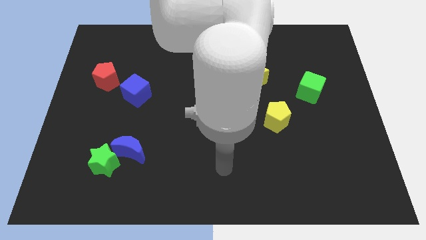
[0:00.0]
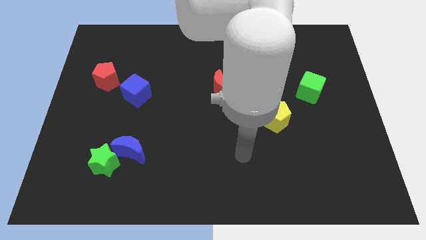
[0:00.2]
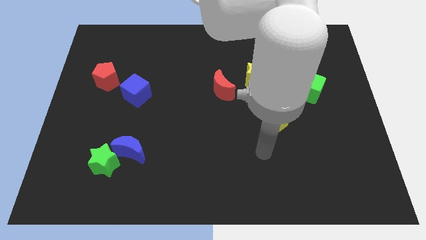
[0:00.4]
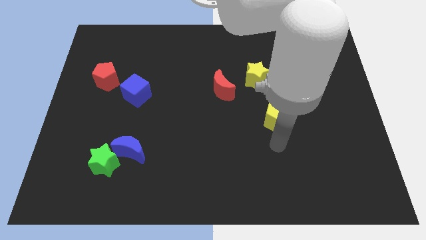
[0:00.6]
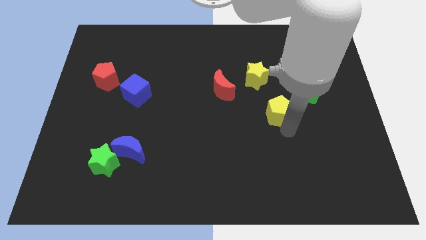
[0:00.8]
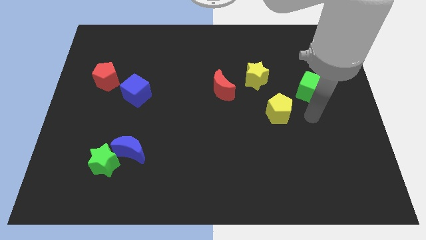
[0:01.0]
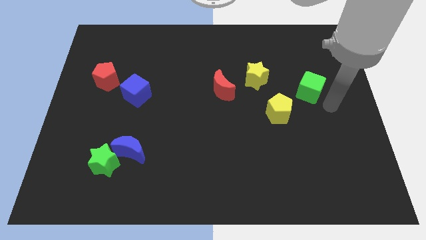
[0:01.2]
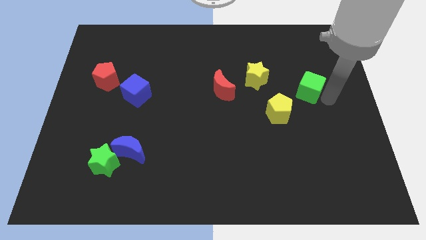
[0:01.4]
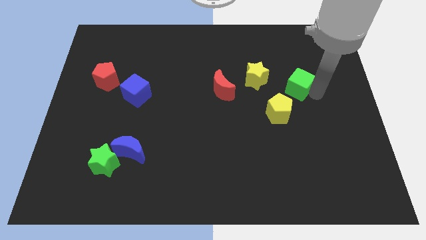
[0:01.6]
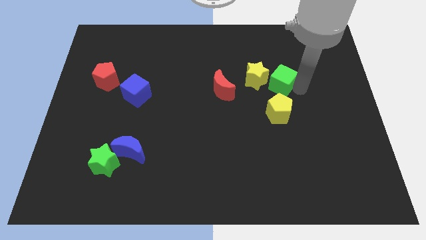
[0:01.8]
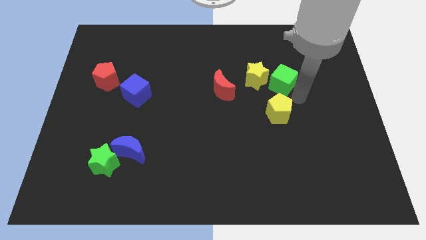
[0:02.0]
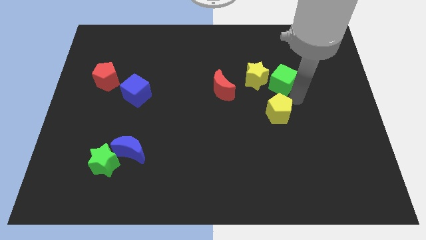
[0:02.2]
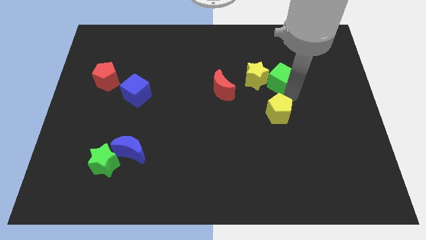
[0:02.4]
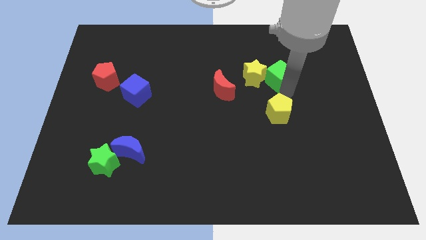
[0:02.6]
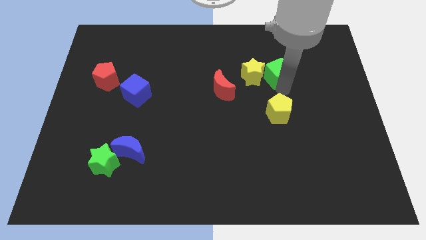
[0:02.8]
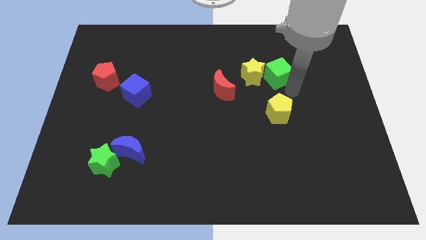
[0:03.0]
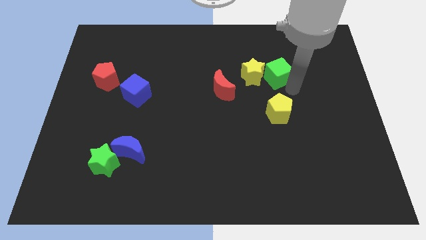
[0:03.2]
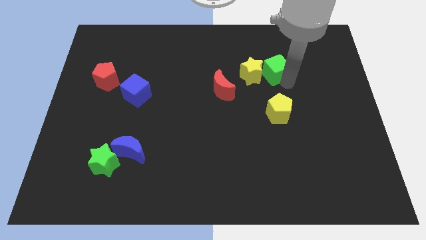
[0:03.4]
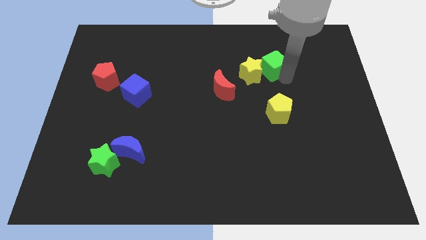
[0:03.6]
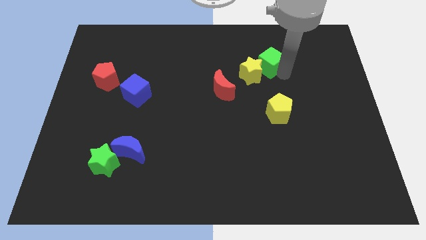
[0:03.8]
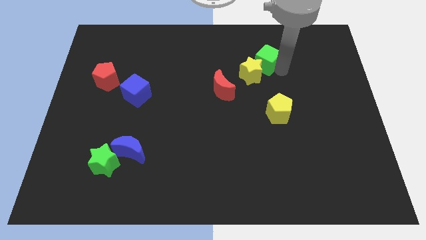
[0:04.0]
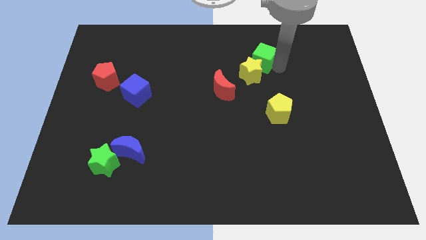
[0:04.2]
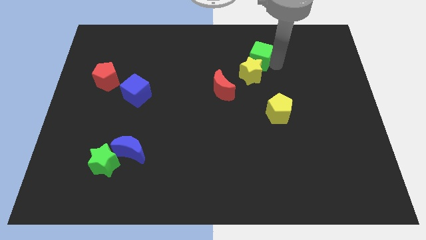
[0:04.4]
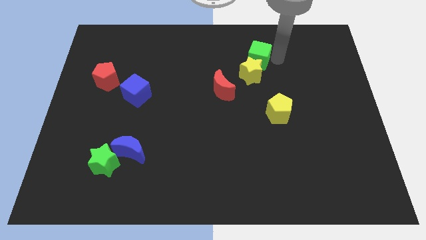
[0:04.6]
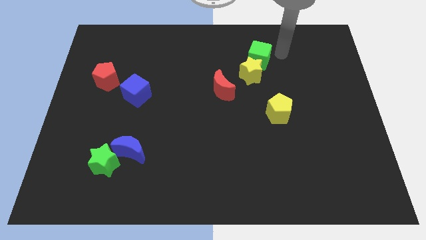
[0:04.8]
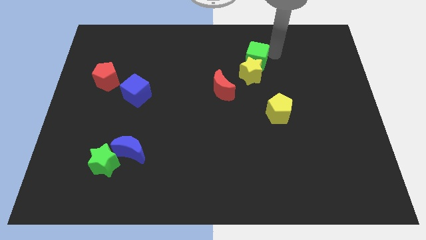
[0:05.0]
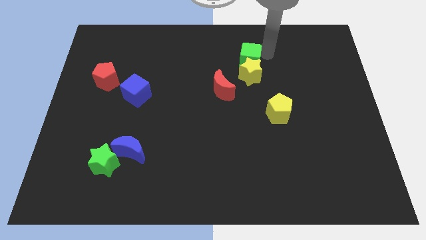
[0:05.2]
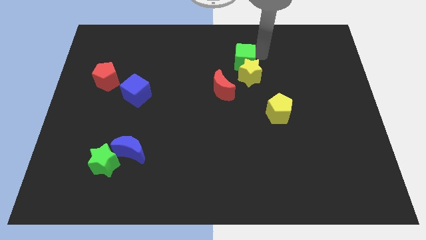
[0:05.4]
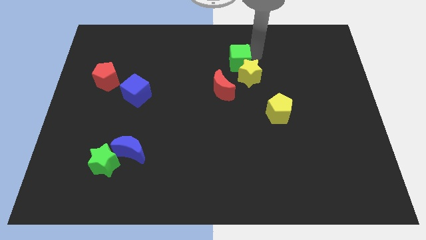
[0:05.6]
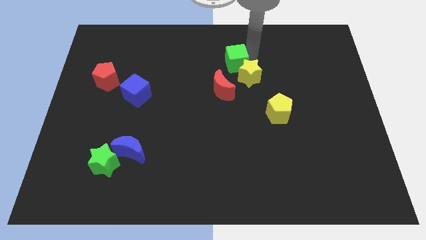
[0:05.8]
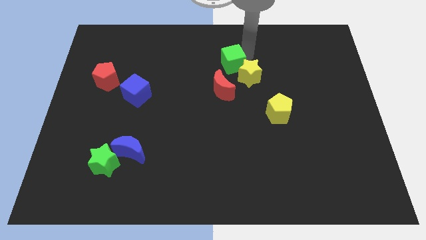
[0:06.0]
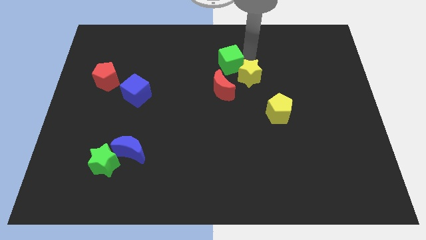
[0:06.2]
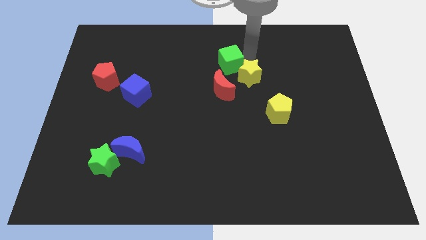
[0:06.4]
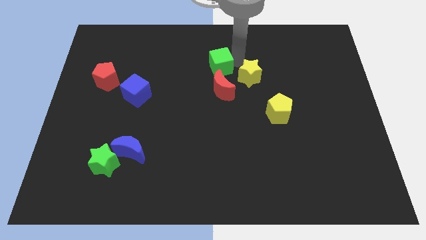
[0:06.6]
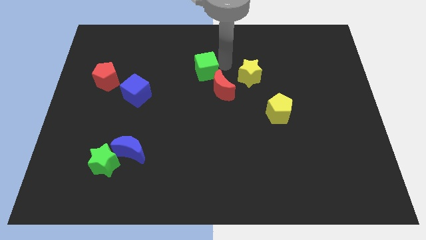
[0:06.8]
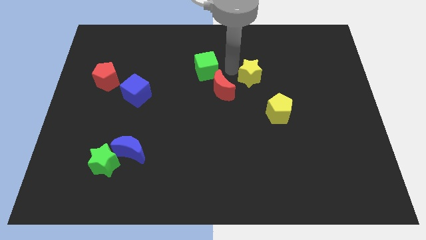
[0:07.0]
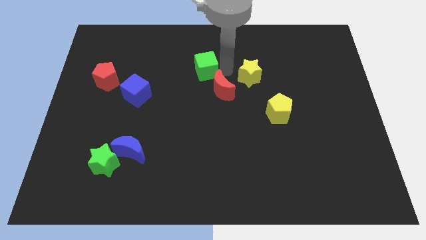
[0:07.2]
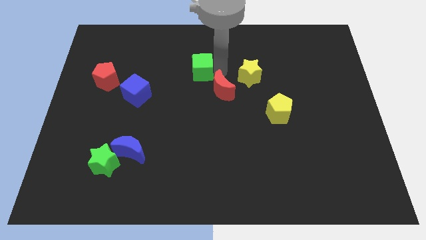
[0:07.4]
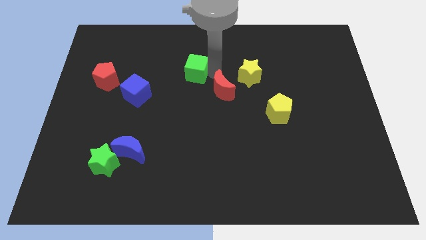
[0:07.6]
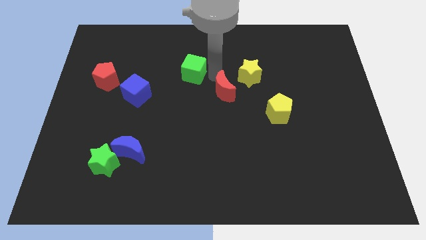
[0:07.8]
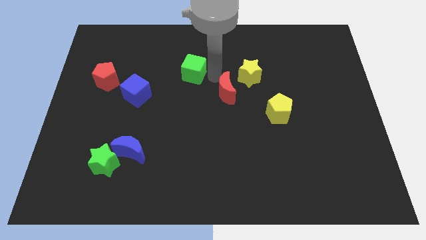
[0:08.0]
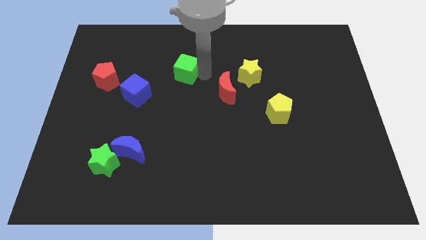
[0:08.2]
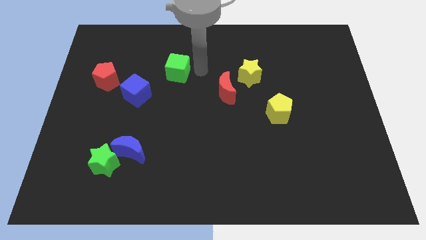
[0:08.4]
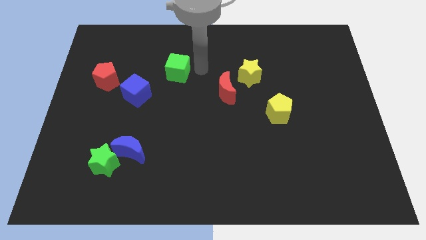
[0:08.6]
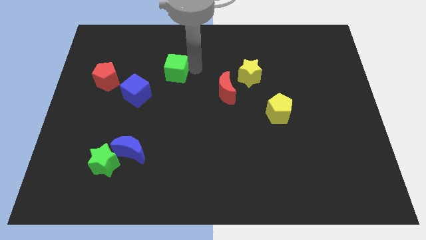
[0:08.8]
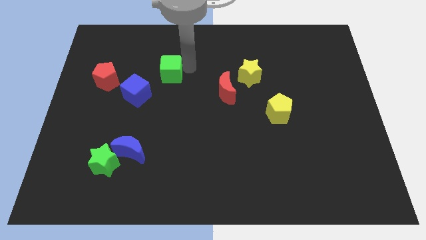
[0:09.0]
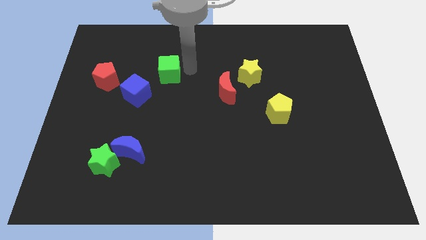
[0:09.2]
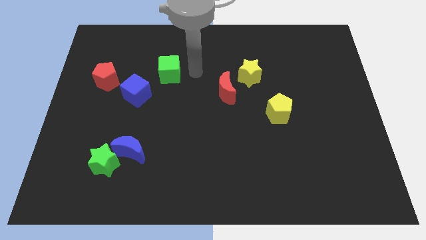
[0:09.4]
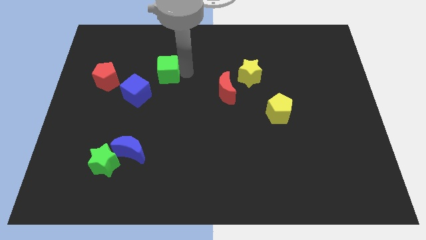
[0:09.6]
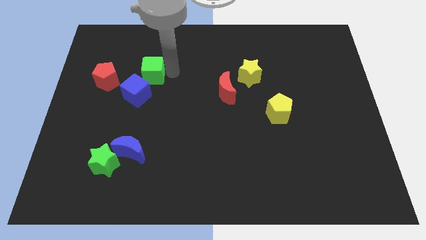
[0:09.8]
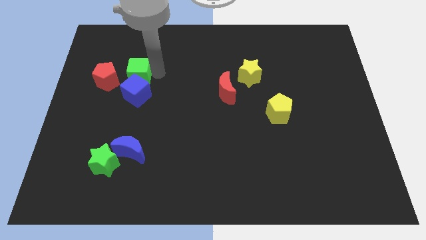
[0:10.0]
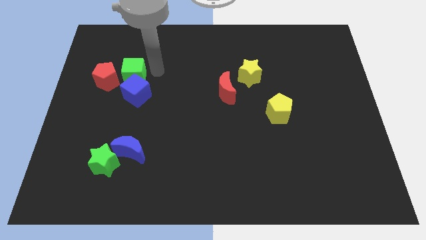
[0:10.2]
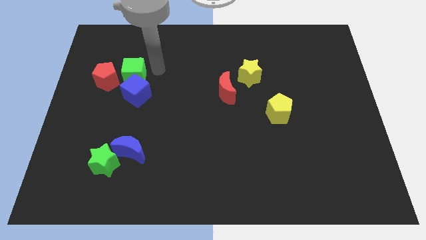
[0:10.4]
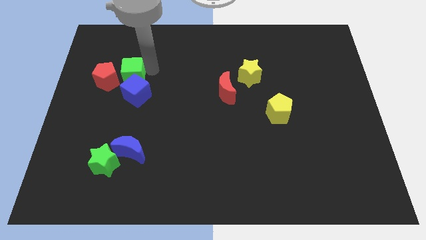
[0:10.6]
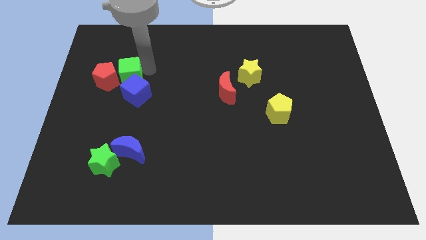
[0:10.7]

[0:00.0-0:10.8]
put the green cube next to the red pentagon
